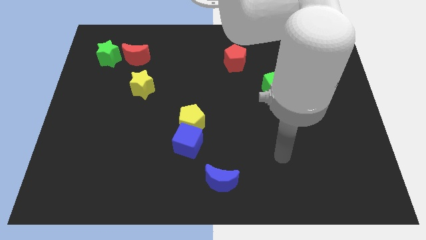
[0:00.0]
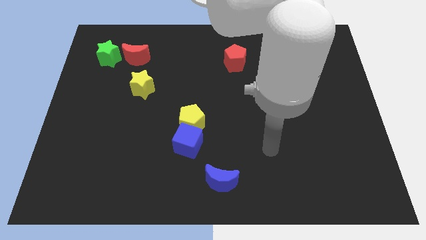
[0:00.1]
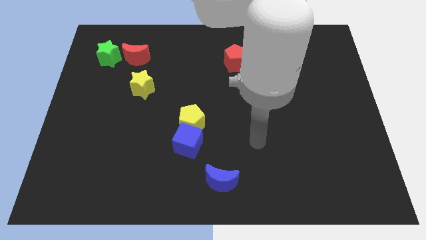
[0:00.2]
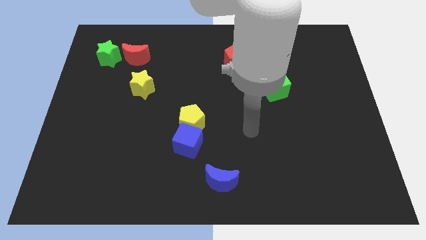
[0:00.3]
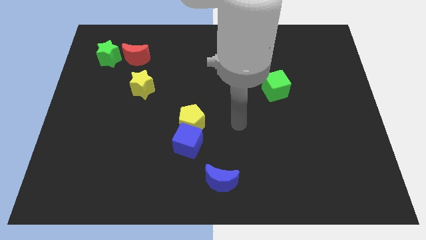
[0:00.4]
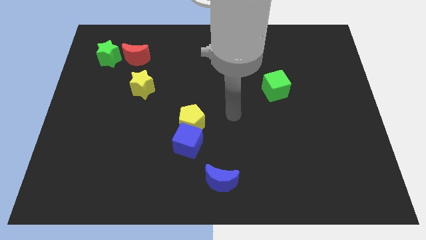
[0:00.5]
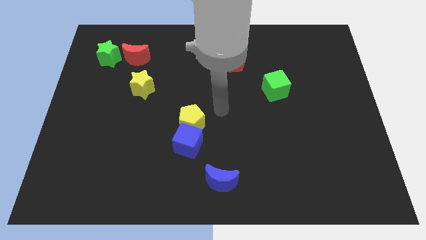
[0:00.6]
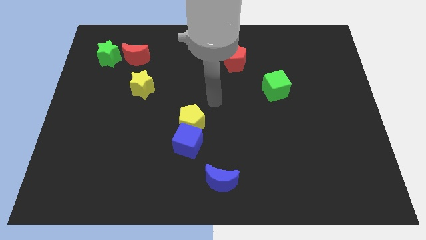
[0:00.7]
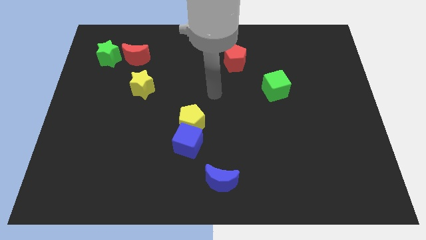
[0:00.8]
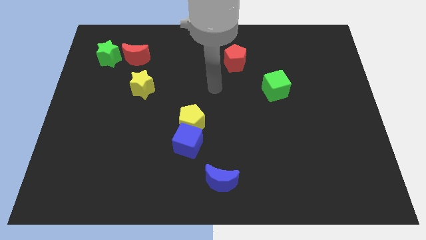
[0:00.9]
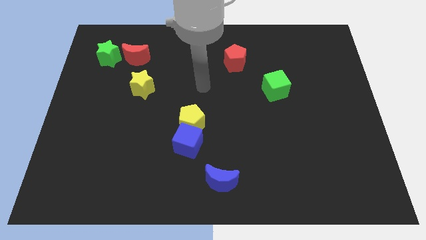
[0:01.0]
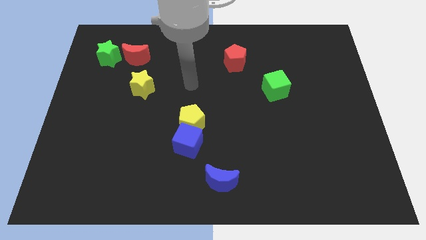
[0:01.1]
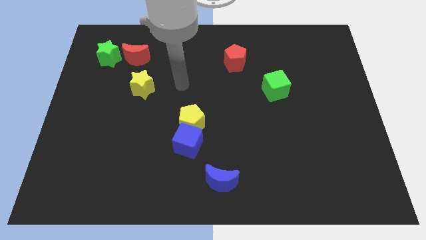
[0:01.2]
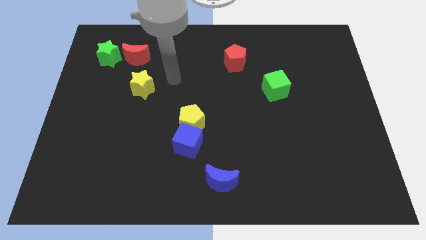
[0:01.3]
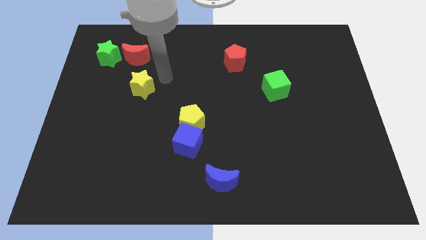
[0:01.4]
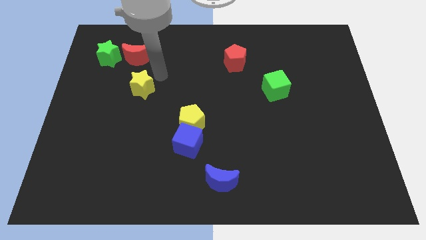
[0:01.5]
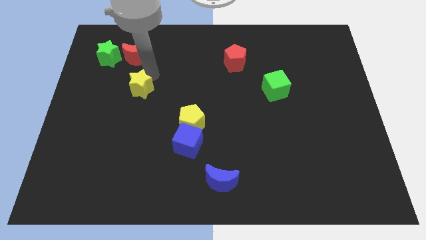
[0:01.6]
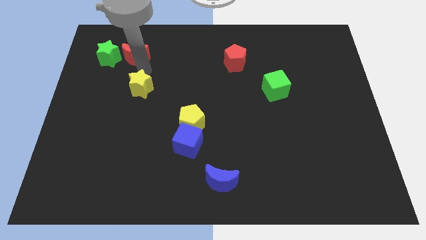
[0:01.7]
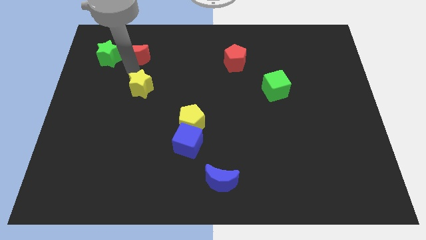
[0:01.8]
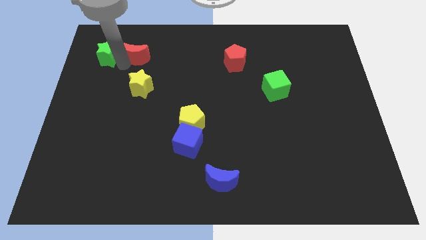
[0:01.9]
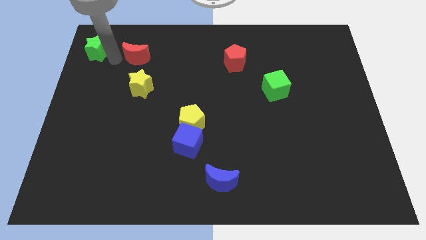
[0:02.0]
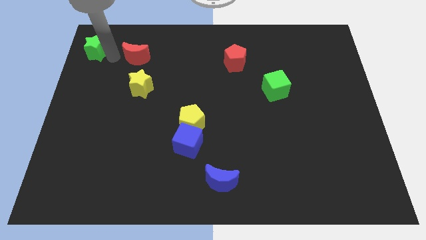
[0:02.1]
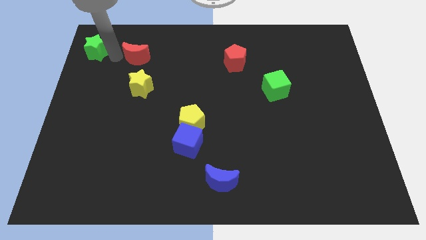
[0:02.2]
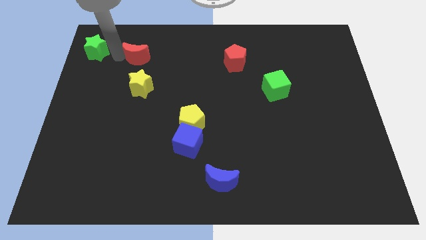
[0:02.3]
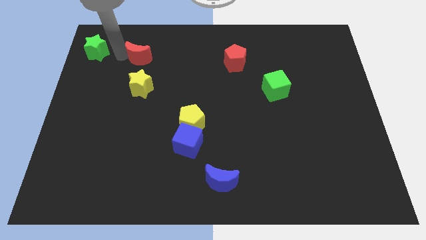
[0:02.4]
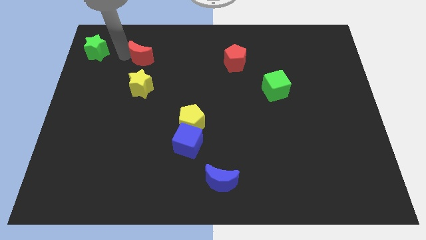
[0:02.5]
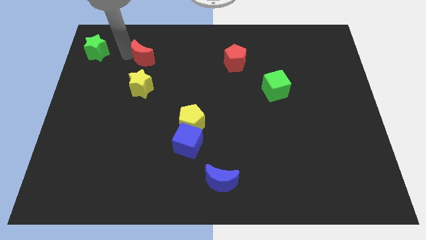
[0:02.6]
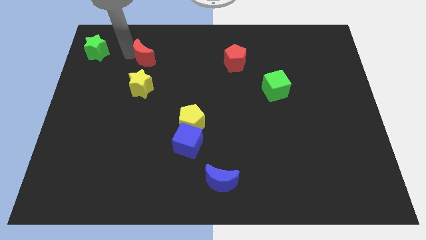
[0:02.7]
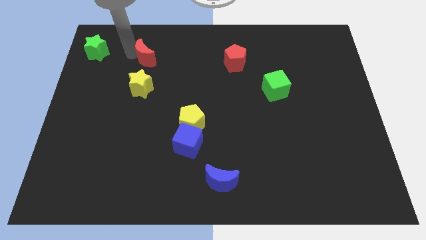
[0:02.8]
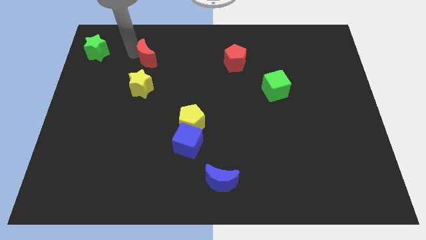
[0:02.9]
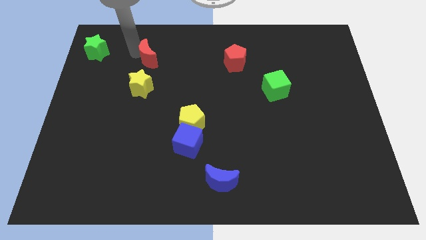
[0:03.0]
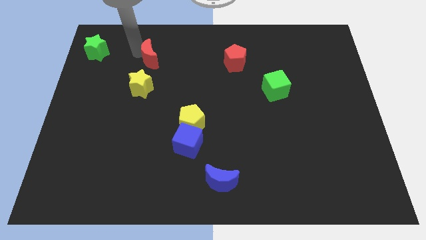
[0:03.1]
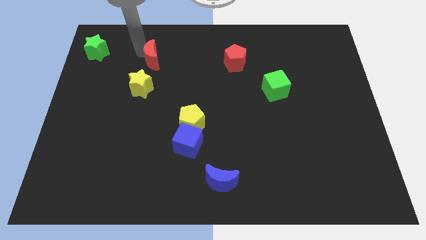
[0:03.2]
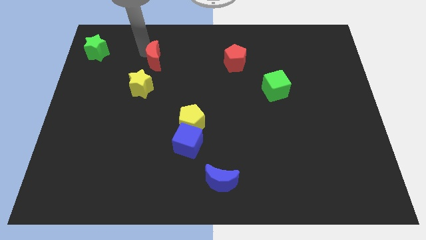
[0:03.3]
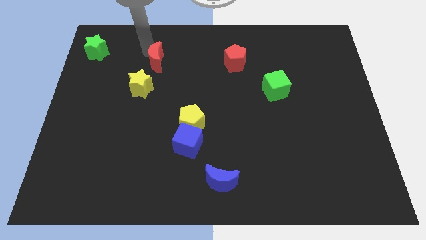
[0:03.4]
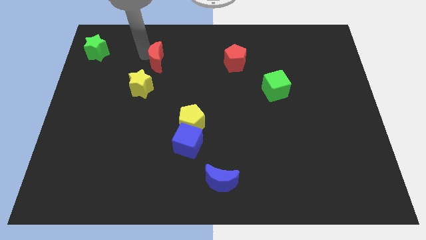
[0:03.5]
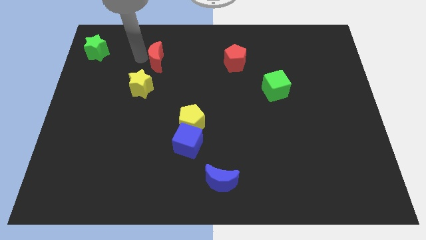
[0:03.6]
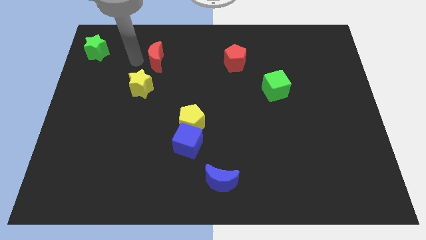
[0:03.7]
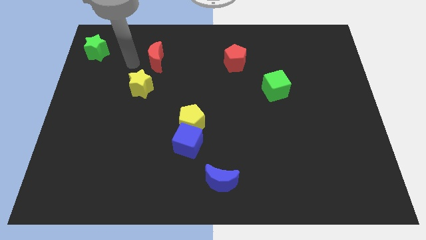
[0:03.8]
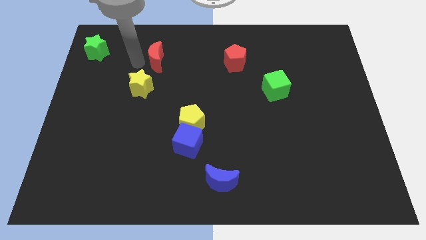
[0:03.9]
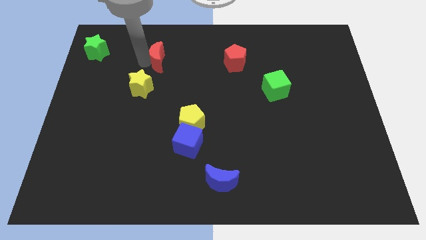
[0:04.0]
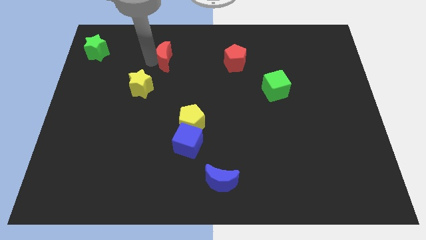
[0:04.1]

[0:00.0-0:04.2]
push the red moon a little right

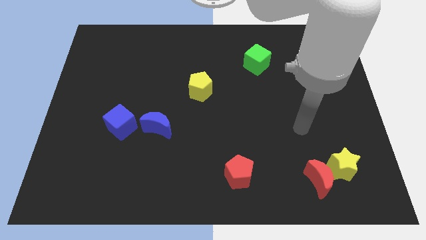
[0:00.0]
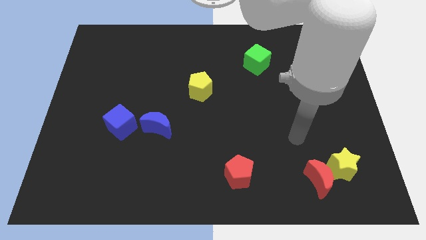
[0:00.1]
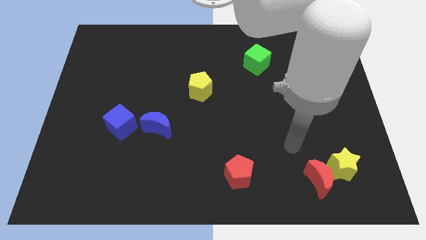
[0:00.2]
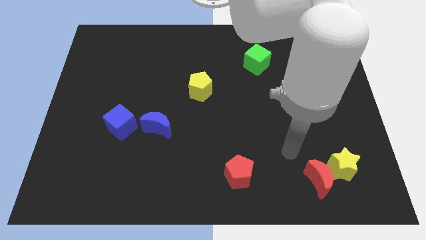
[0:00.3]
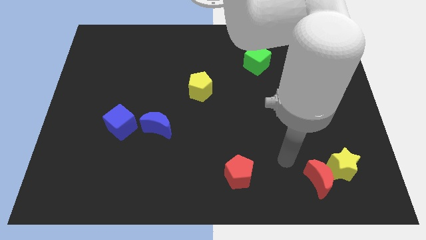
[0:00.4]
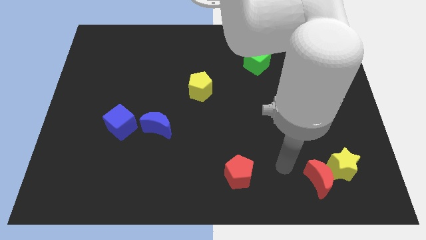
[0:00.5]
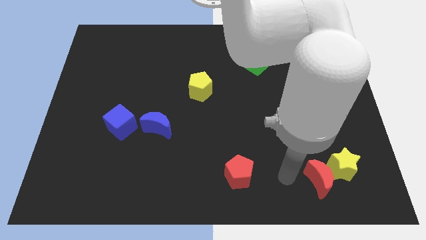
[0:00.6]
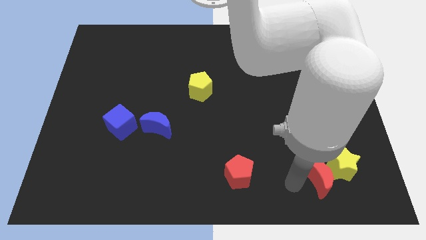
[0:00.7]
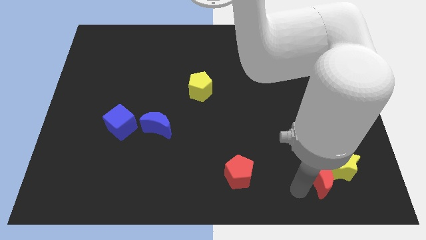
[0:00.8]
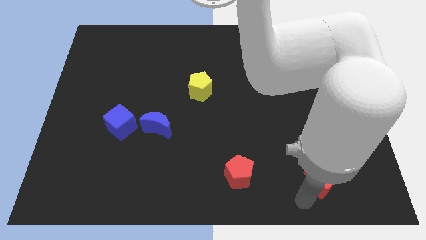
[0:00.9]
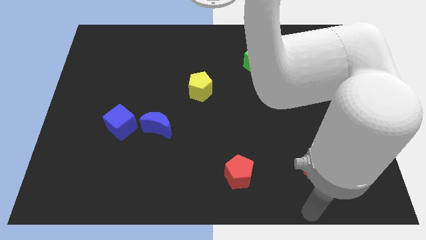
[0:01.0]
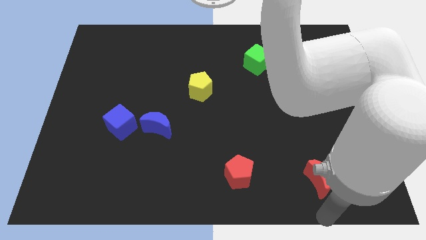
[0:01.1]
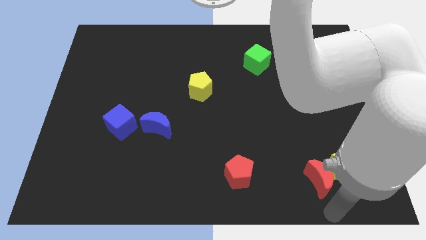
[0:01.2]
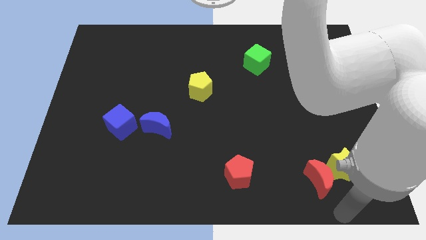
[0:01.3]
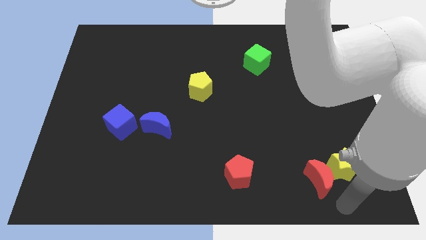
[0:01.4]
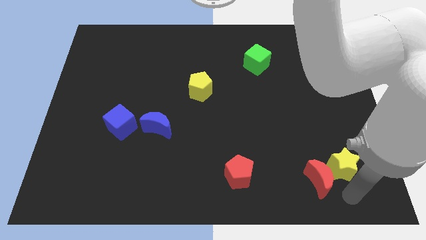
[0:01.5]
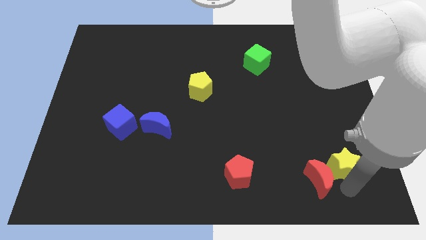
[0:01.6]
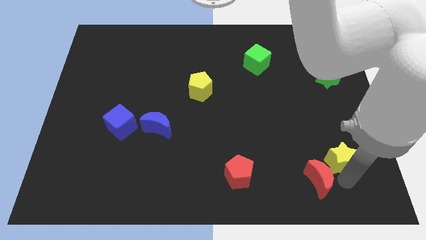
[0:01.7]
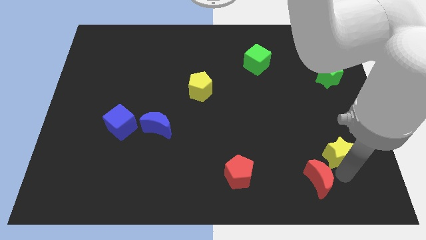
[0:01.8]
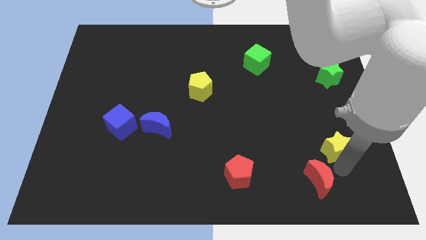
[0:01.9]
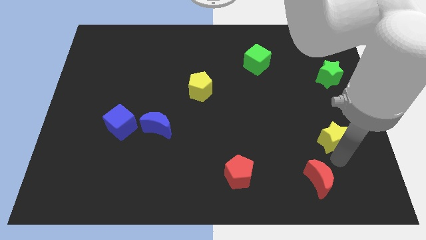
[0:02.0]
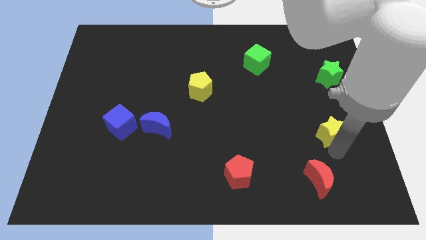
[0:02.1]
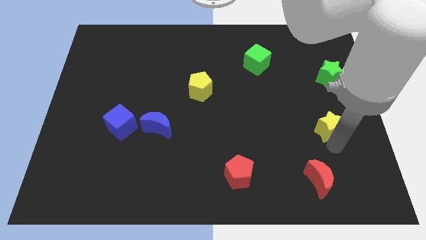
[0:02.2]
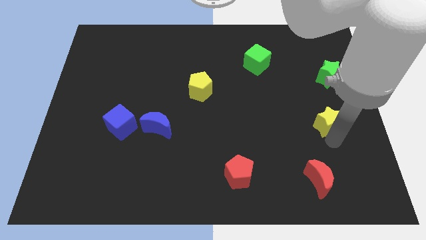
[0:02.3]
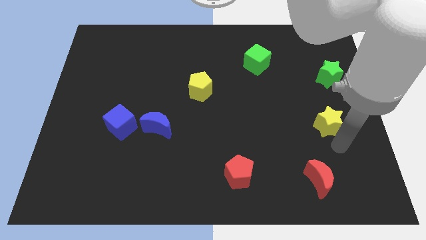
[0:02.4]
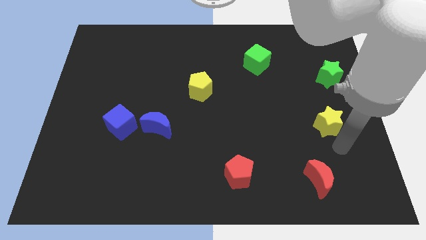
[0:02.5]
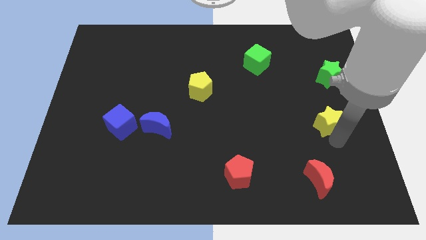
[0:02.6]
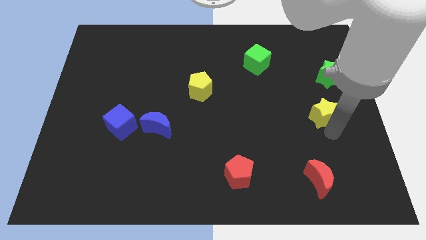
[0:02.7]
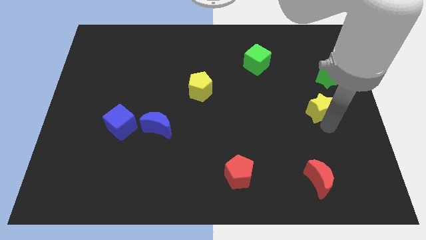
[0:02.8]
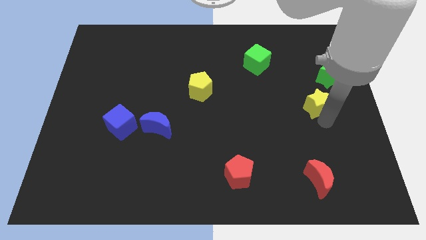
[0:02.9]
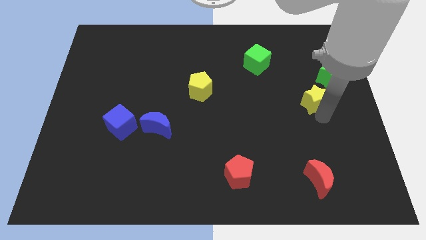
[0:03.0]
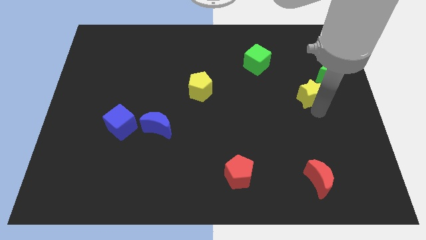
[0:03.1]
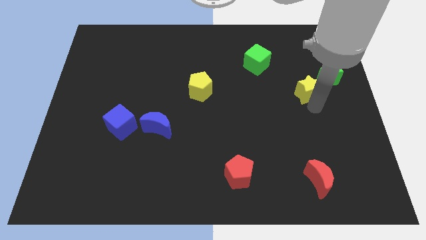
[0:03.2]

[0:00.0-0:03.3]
push the yellow star upwards

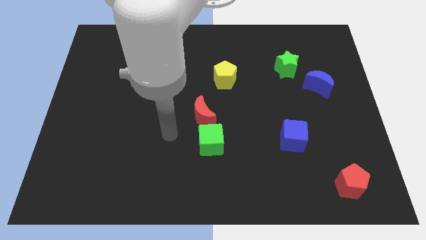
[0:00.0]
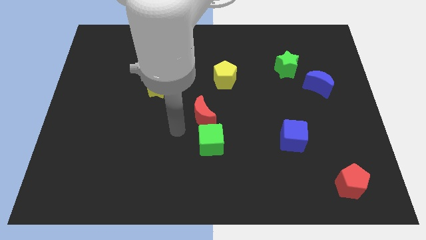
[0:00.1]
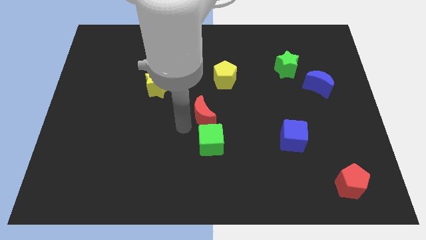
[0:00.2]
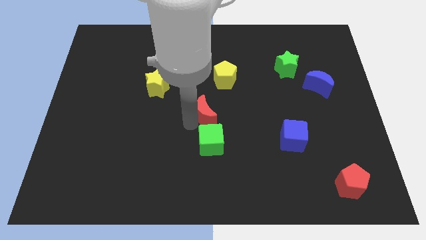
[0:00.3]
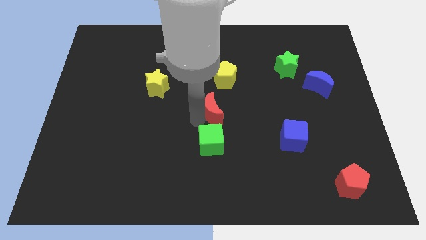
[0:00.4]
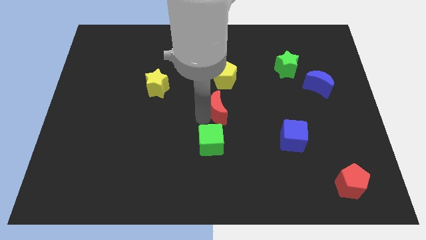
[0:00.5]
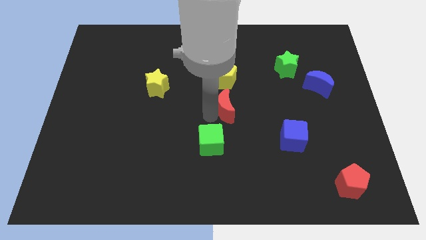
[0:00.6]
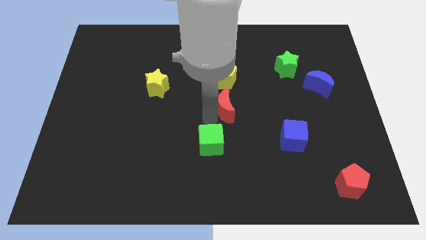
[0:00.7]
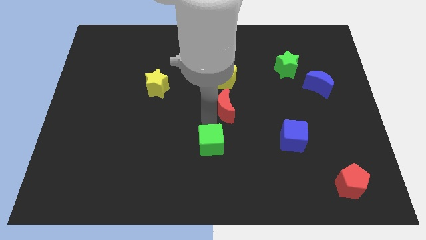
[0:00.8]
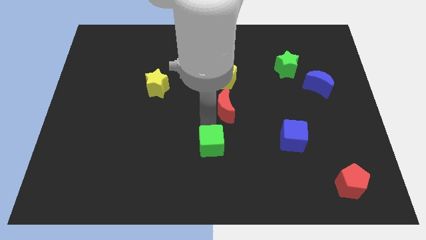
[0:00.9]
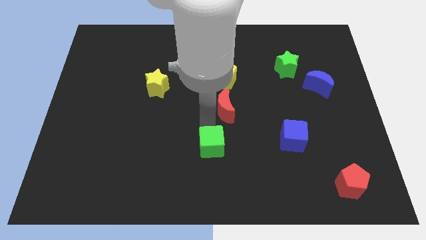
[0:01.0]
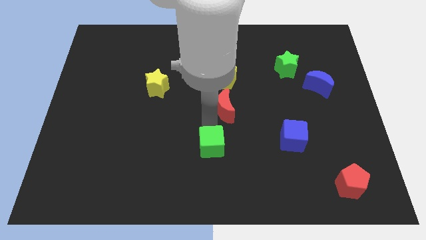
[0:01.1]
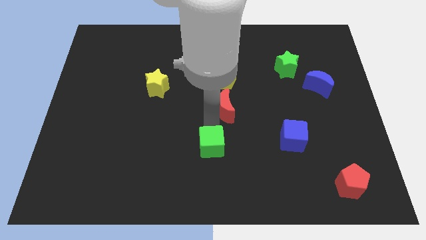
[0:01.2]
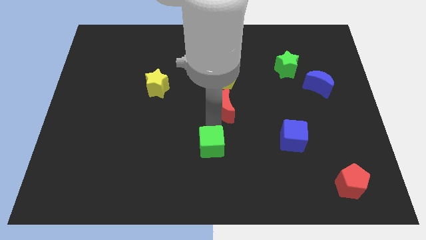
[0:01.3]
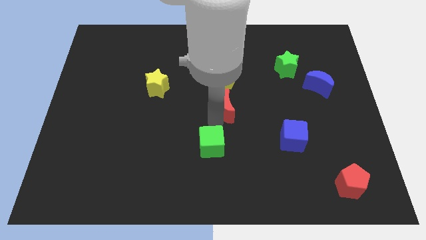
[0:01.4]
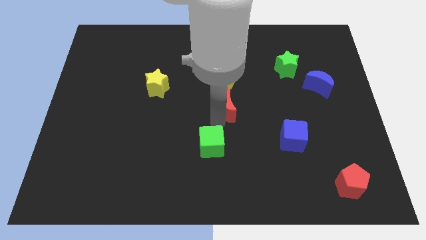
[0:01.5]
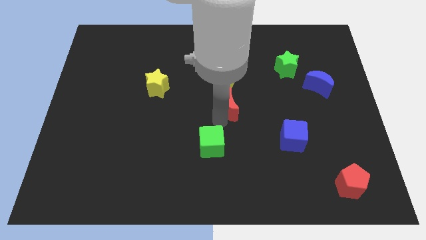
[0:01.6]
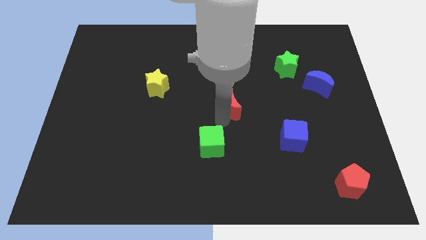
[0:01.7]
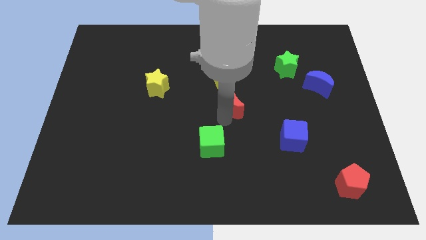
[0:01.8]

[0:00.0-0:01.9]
move the red moon slightly up and then to the right
